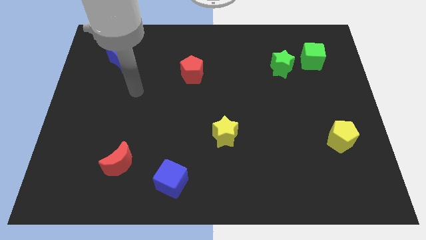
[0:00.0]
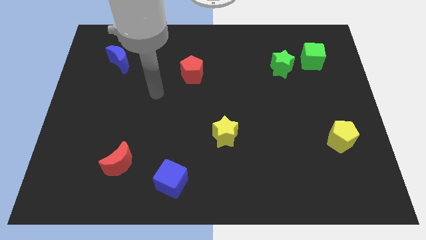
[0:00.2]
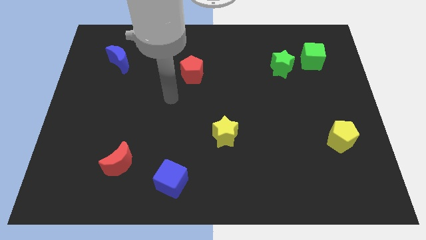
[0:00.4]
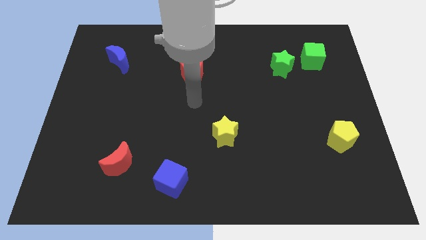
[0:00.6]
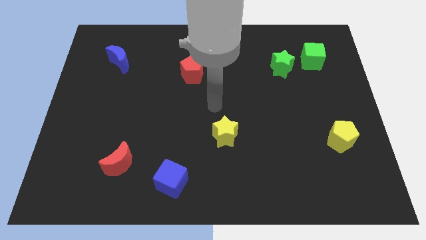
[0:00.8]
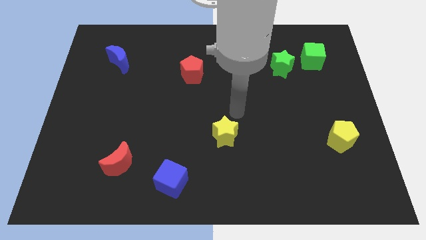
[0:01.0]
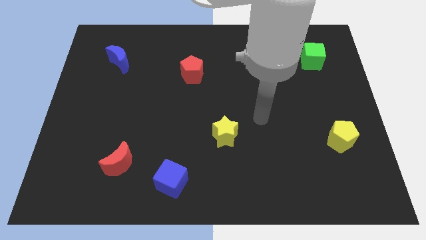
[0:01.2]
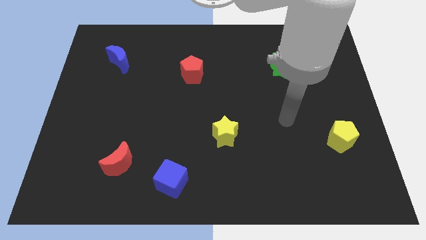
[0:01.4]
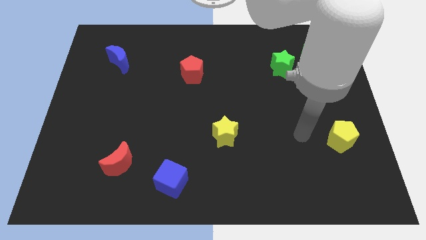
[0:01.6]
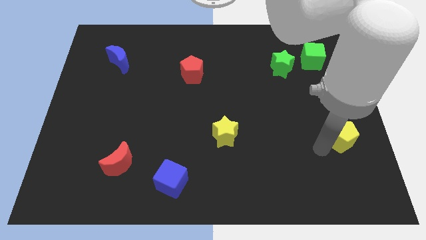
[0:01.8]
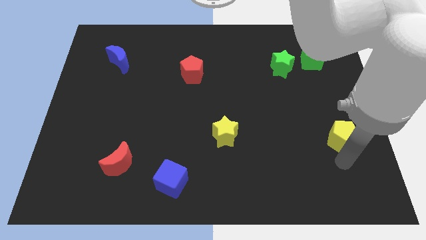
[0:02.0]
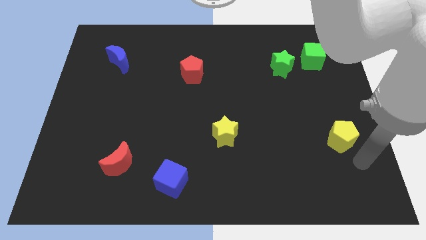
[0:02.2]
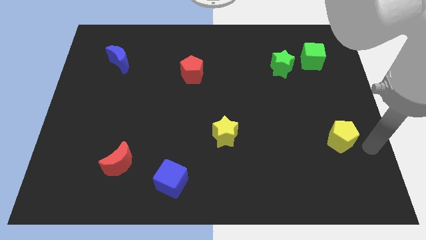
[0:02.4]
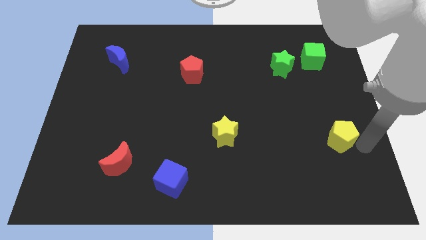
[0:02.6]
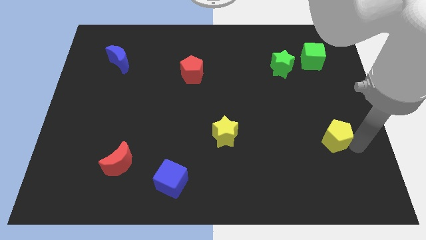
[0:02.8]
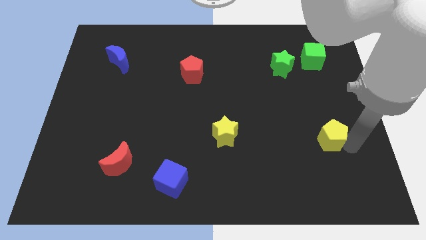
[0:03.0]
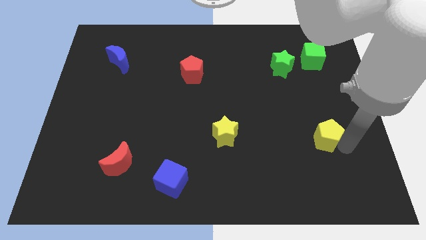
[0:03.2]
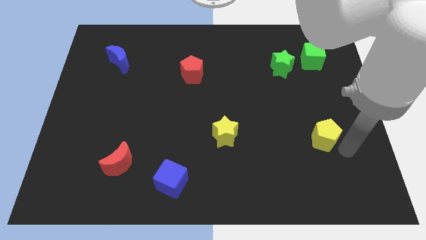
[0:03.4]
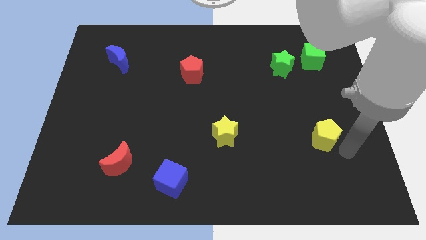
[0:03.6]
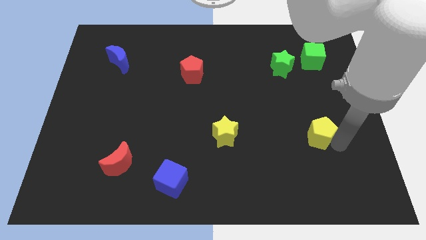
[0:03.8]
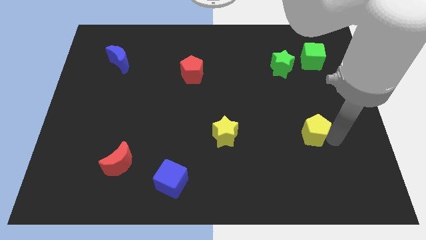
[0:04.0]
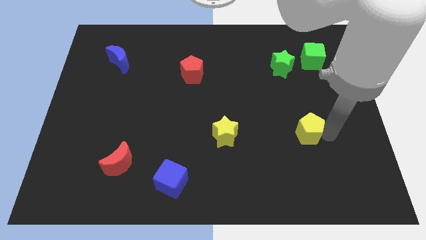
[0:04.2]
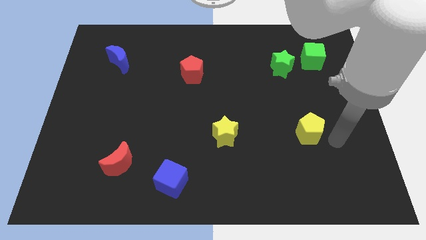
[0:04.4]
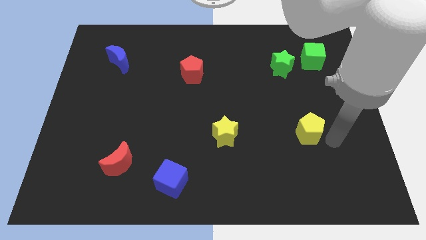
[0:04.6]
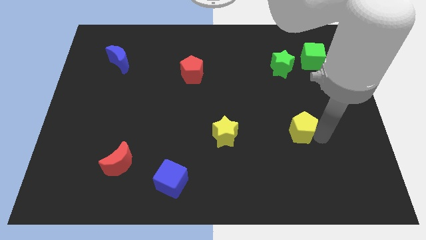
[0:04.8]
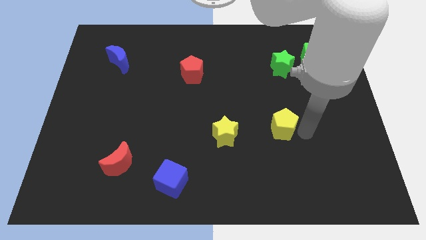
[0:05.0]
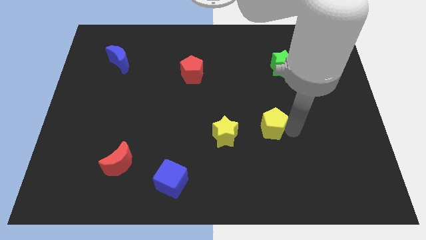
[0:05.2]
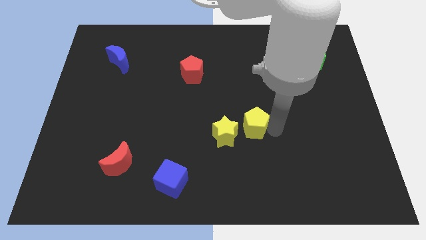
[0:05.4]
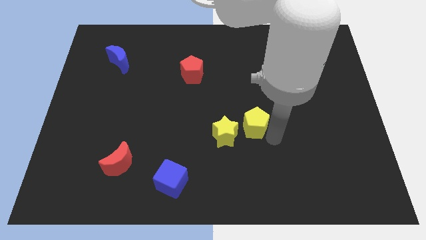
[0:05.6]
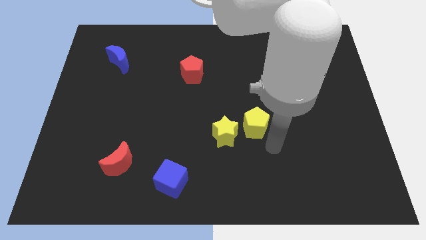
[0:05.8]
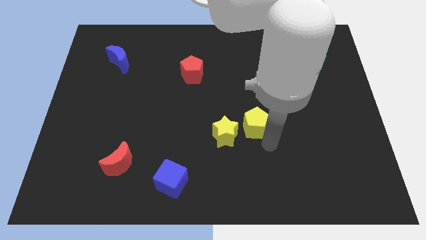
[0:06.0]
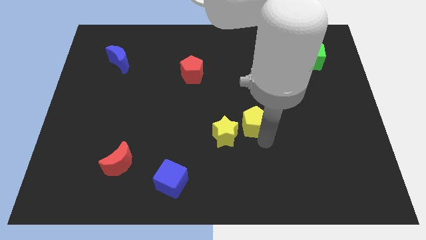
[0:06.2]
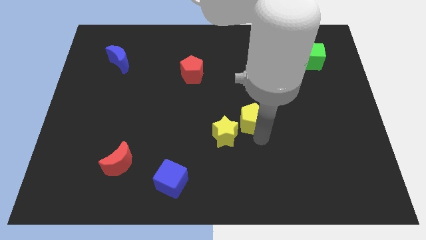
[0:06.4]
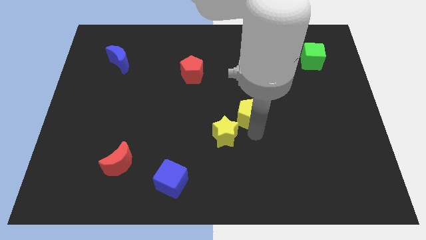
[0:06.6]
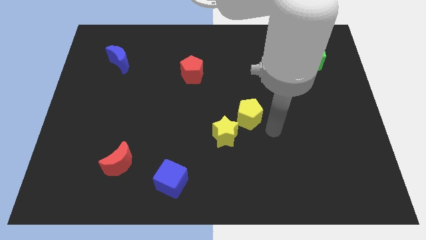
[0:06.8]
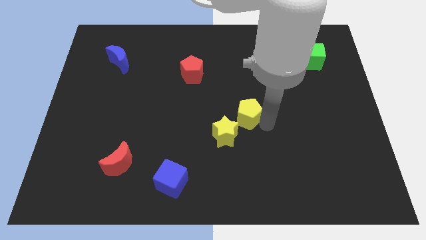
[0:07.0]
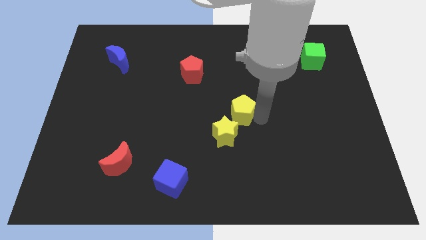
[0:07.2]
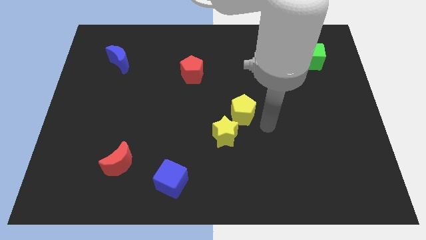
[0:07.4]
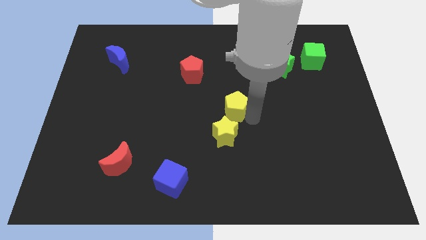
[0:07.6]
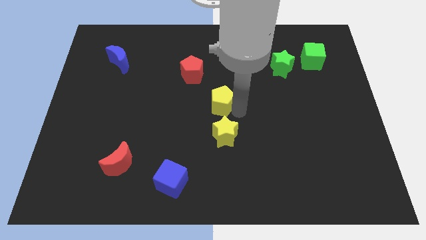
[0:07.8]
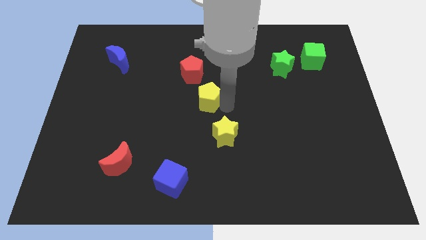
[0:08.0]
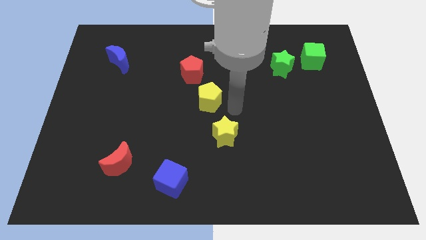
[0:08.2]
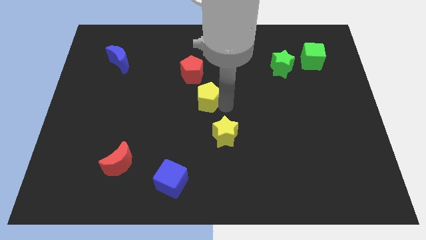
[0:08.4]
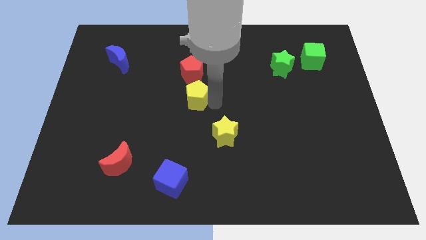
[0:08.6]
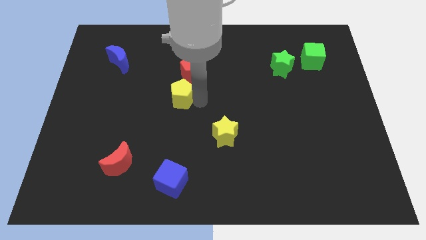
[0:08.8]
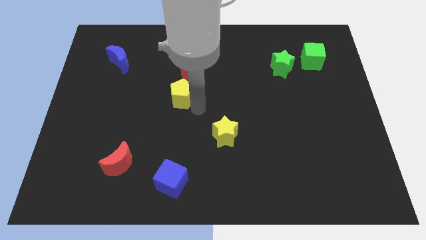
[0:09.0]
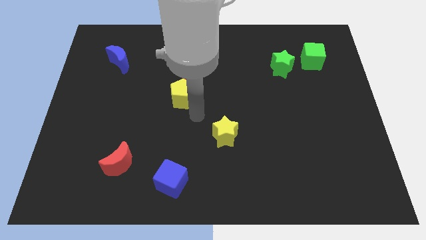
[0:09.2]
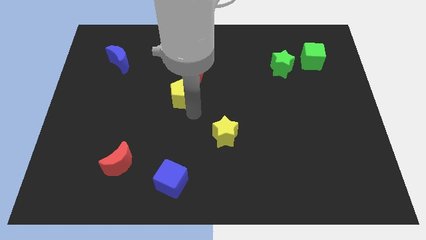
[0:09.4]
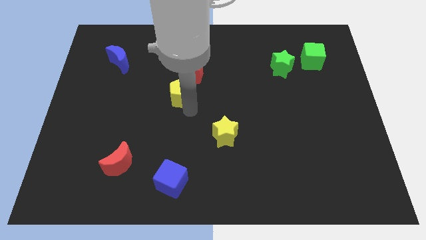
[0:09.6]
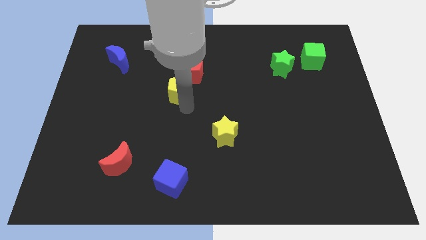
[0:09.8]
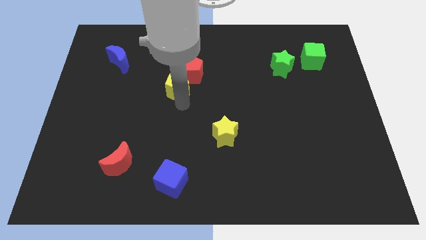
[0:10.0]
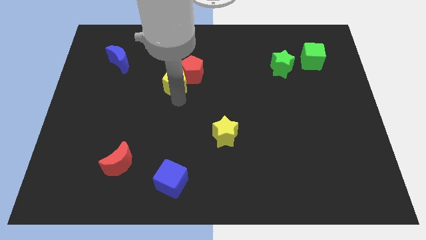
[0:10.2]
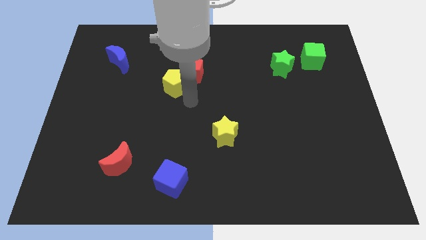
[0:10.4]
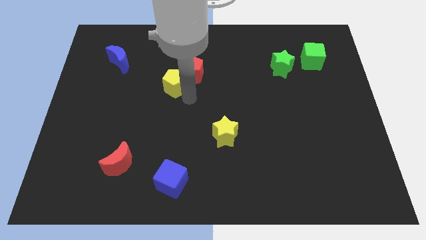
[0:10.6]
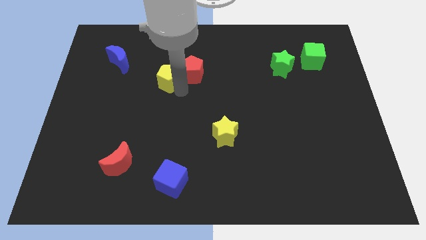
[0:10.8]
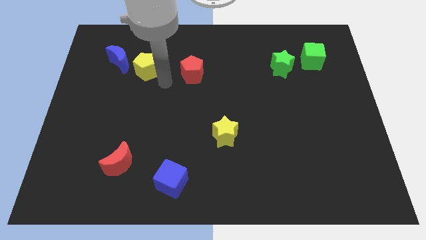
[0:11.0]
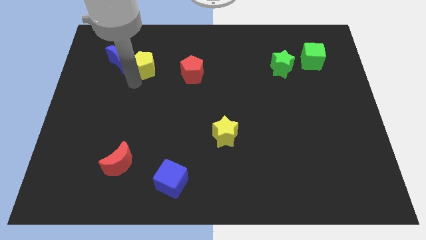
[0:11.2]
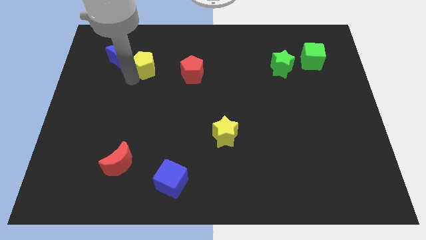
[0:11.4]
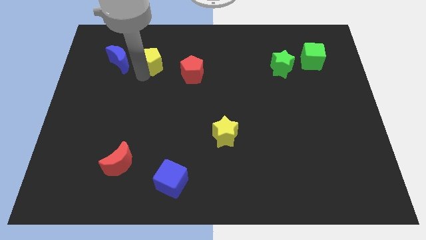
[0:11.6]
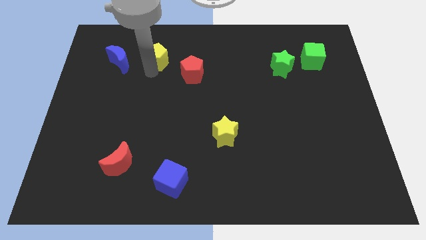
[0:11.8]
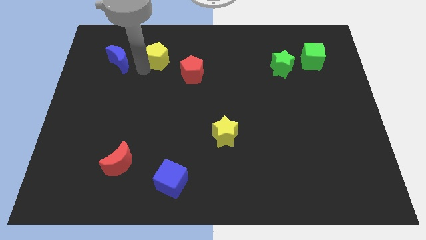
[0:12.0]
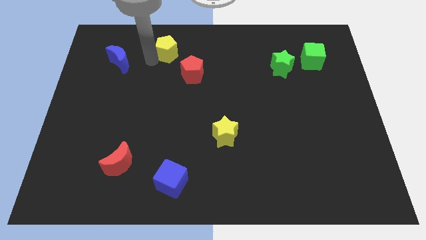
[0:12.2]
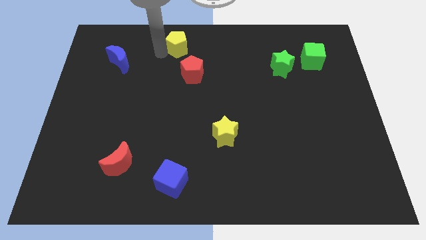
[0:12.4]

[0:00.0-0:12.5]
slide the yellow pentagon to the towards your base
